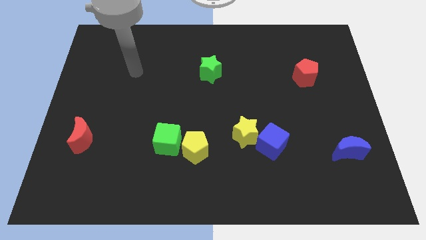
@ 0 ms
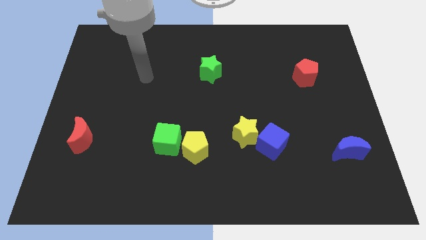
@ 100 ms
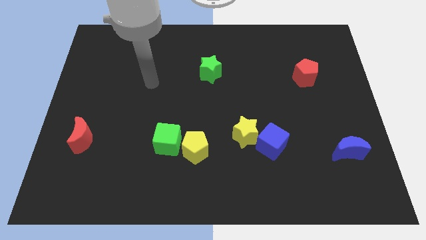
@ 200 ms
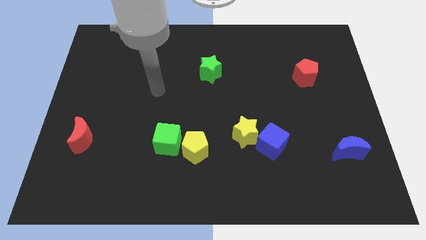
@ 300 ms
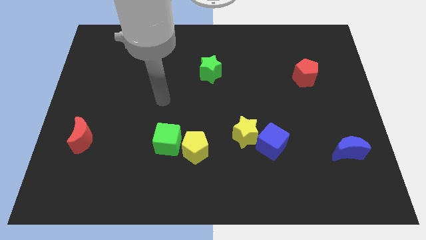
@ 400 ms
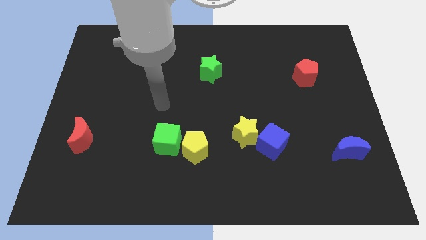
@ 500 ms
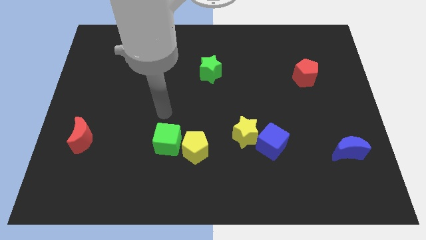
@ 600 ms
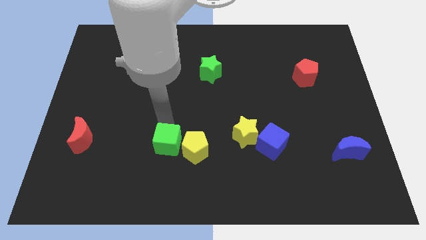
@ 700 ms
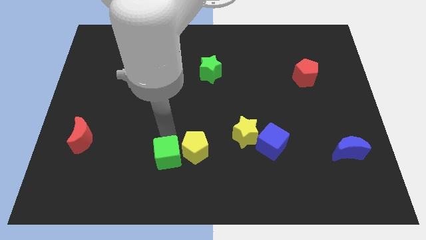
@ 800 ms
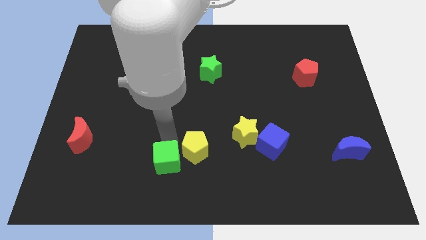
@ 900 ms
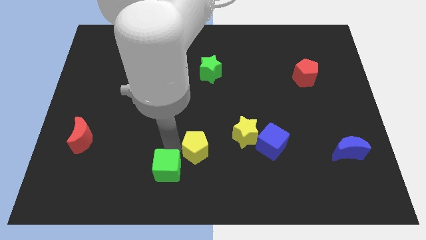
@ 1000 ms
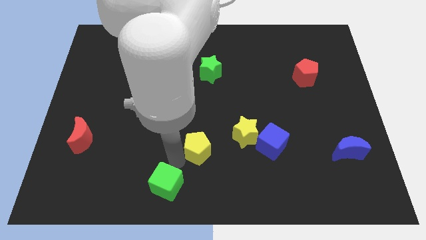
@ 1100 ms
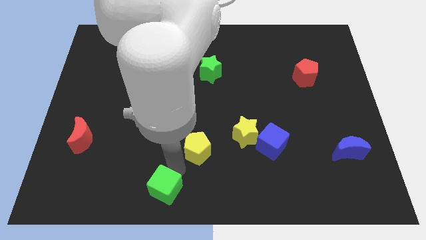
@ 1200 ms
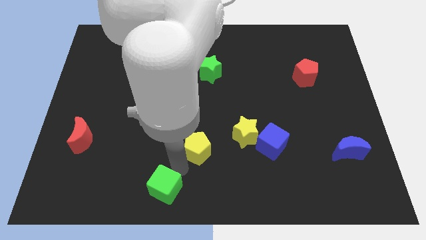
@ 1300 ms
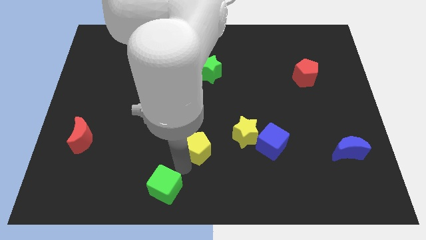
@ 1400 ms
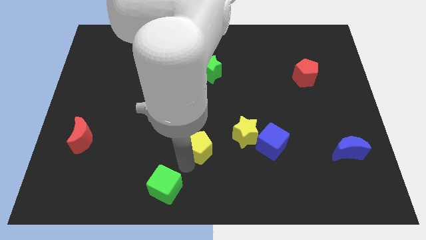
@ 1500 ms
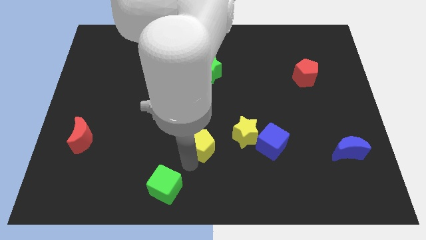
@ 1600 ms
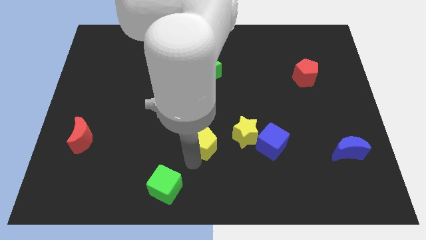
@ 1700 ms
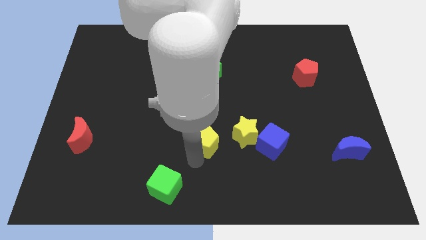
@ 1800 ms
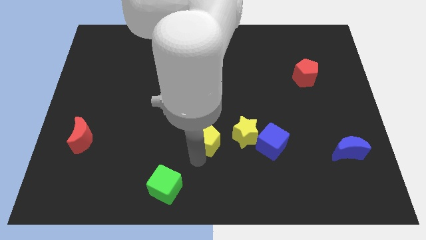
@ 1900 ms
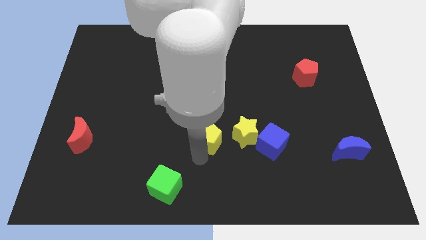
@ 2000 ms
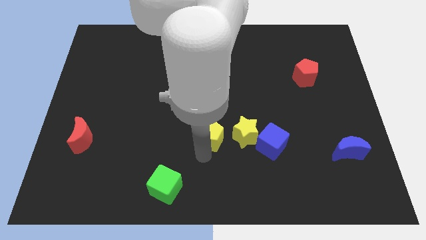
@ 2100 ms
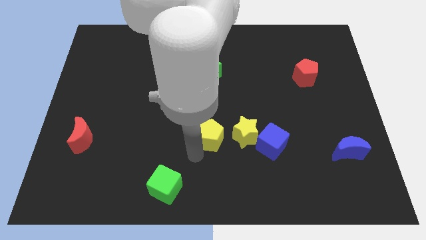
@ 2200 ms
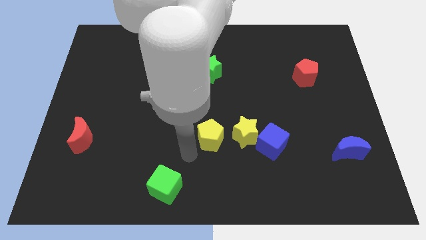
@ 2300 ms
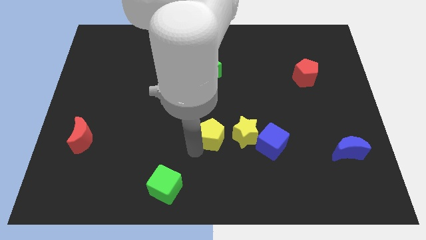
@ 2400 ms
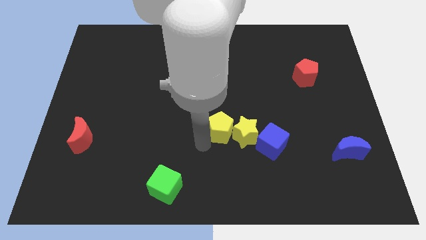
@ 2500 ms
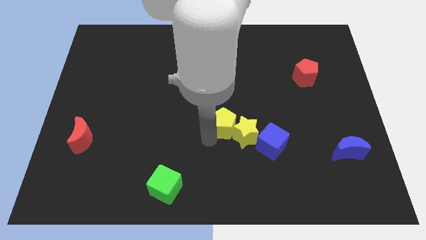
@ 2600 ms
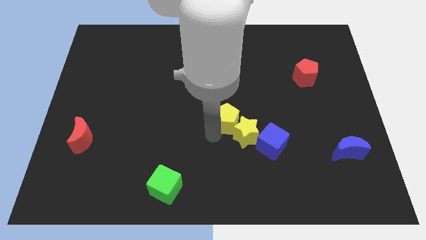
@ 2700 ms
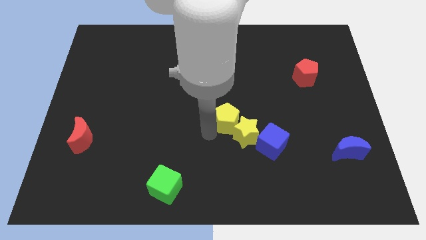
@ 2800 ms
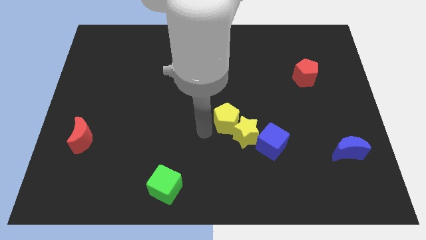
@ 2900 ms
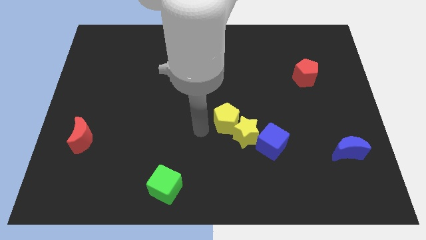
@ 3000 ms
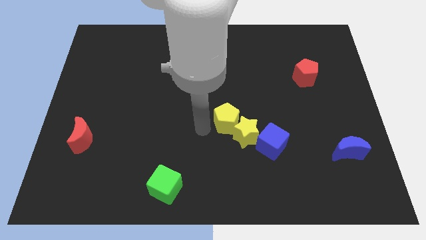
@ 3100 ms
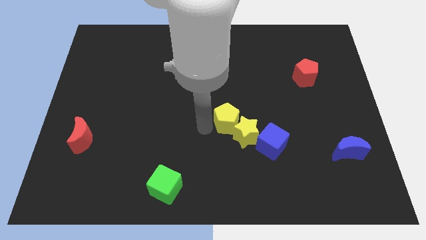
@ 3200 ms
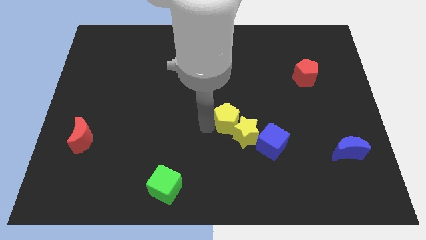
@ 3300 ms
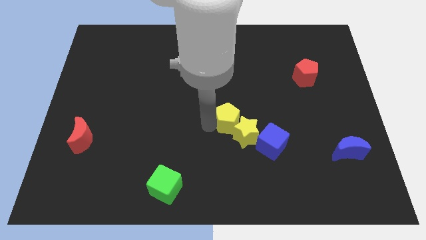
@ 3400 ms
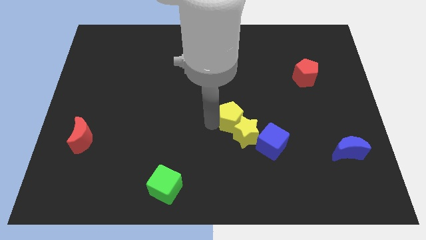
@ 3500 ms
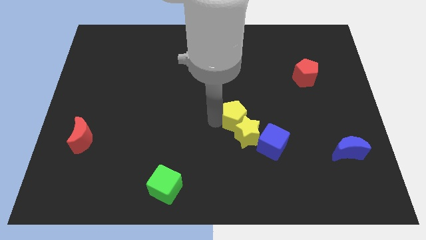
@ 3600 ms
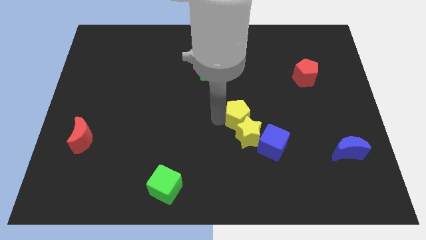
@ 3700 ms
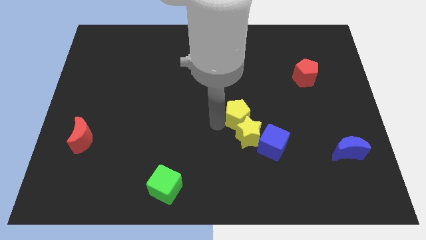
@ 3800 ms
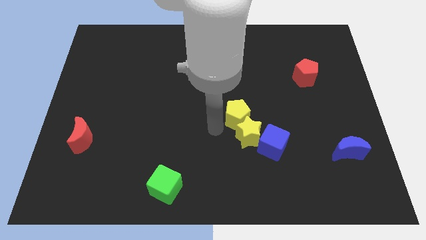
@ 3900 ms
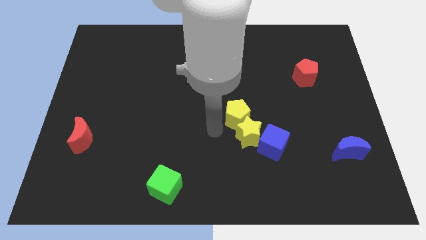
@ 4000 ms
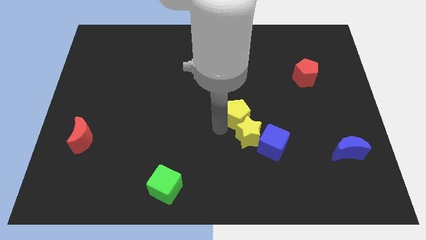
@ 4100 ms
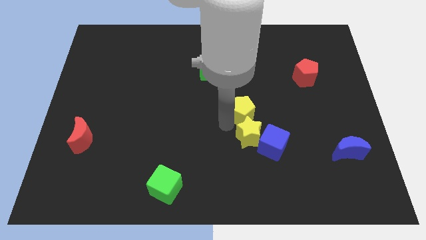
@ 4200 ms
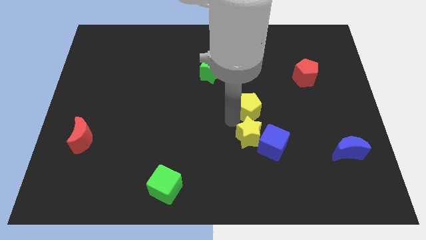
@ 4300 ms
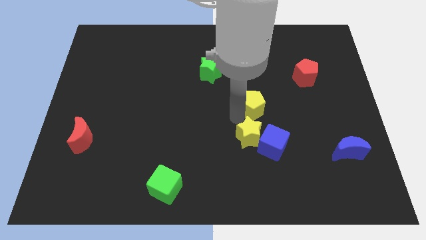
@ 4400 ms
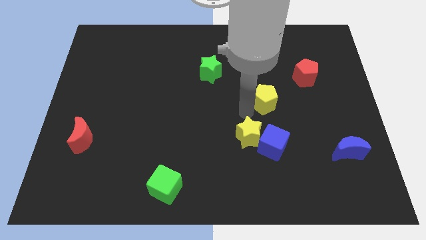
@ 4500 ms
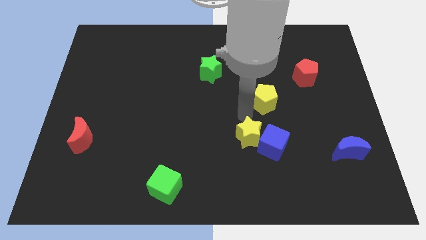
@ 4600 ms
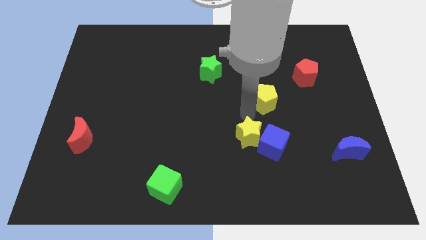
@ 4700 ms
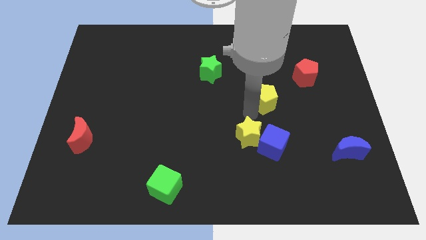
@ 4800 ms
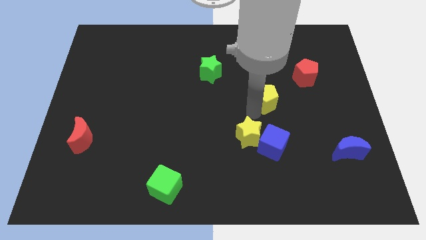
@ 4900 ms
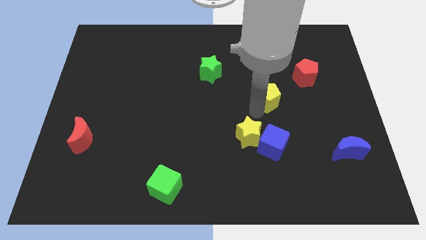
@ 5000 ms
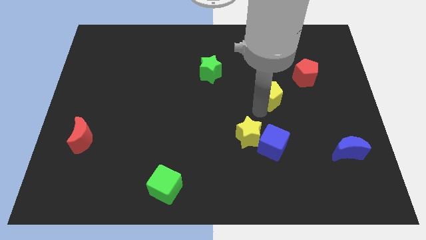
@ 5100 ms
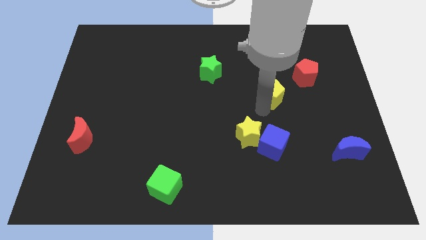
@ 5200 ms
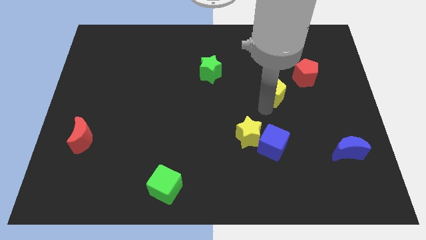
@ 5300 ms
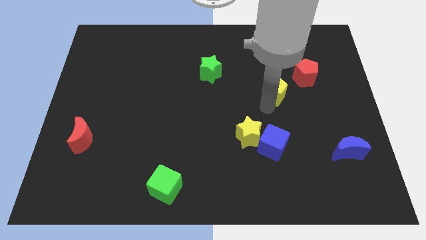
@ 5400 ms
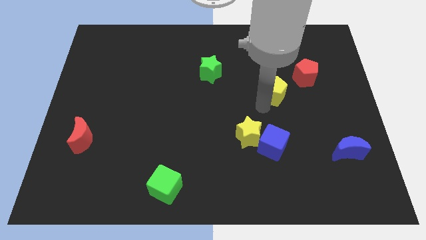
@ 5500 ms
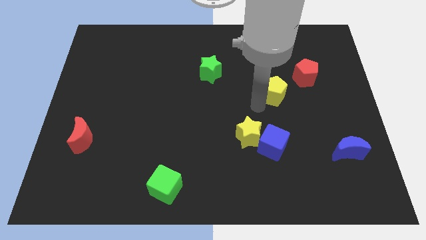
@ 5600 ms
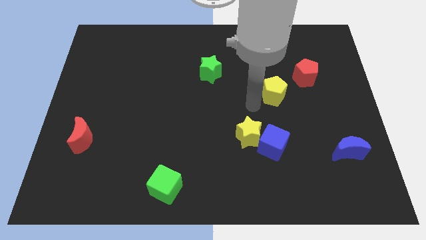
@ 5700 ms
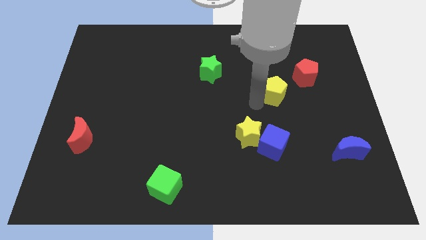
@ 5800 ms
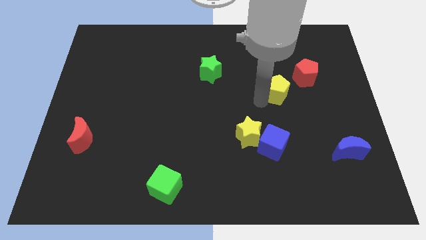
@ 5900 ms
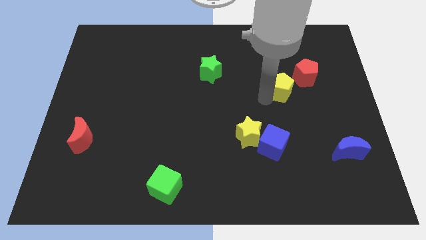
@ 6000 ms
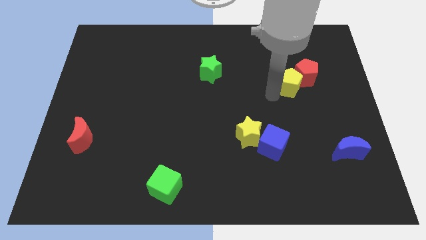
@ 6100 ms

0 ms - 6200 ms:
push the yellow pentagon next to the red pentagon

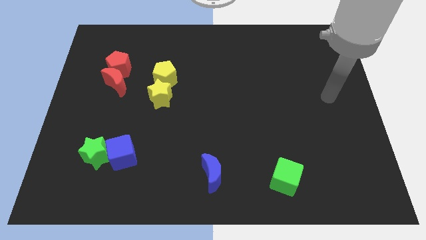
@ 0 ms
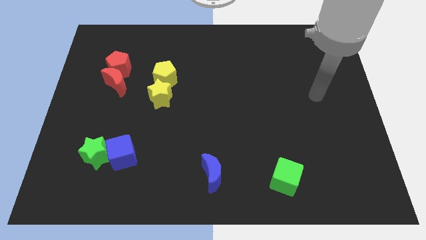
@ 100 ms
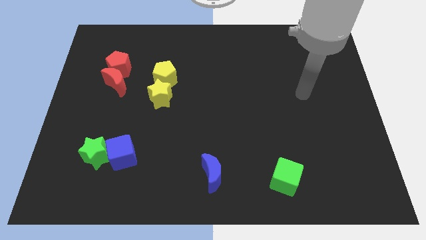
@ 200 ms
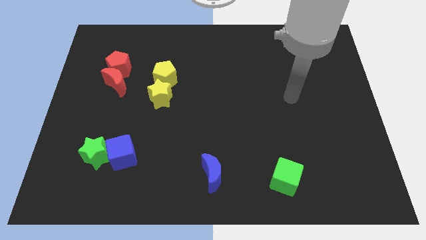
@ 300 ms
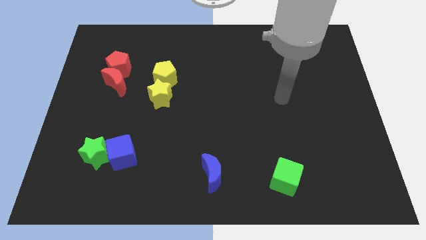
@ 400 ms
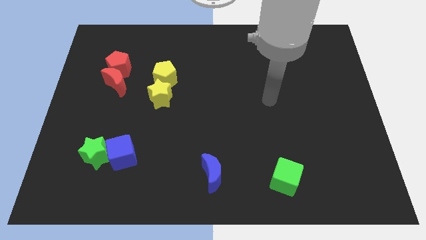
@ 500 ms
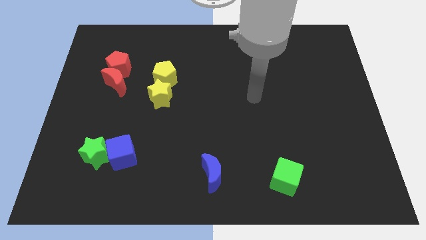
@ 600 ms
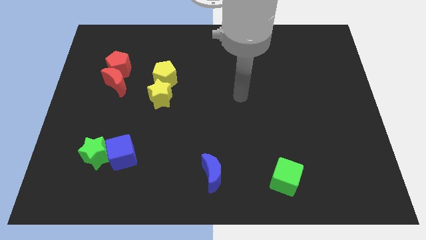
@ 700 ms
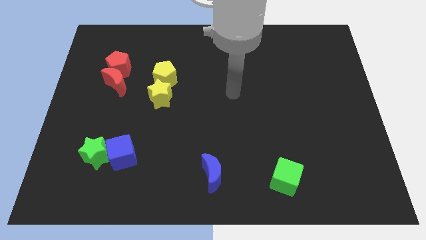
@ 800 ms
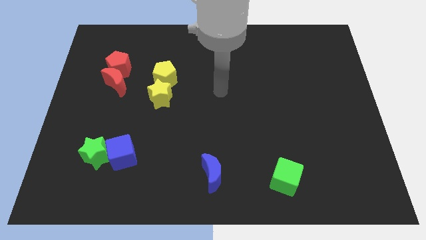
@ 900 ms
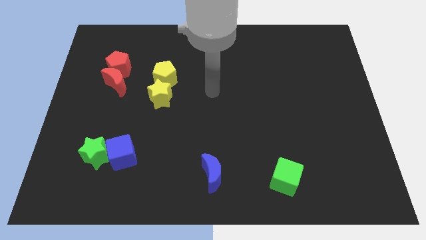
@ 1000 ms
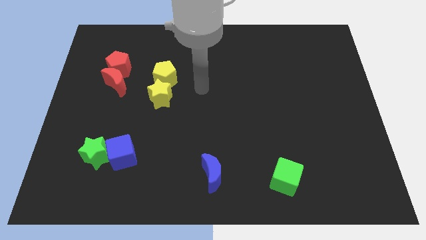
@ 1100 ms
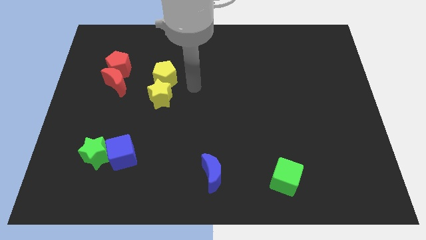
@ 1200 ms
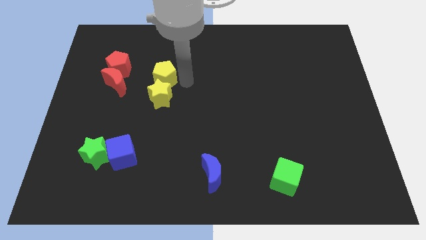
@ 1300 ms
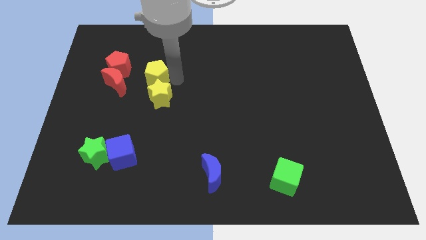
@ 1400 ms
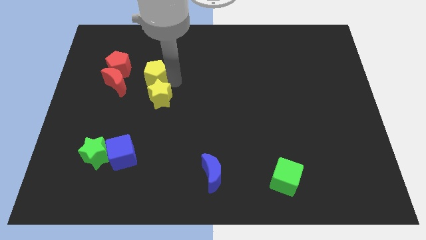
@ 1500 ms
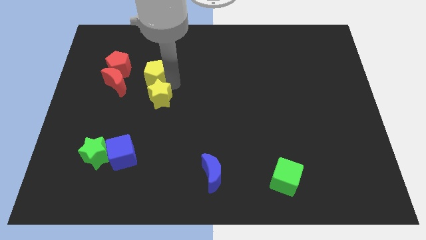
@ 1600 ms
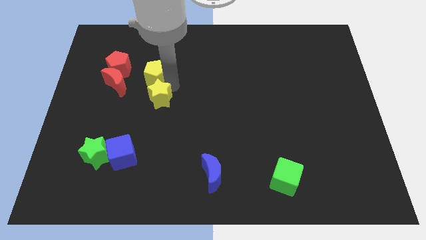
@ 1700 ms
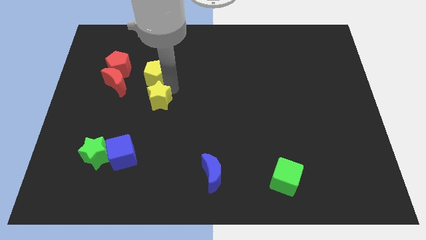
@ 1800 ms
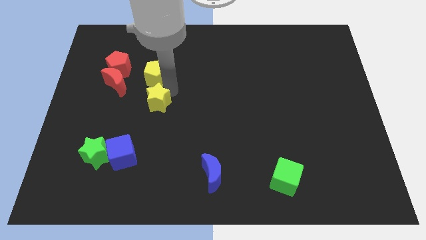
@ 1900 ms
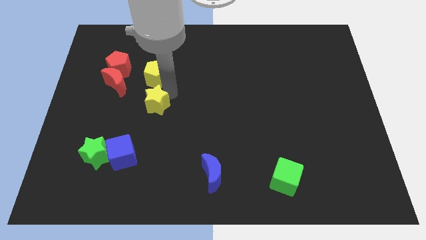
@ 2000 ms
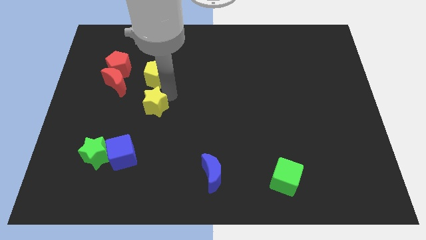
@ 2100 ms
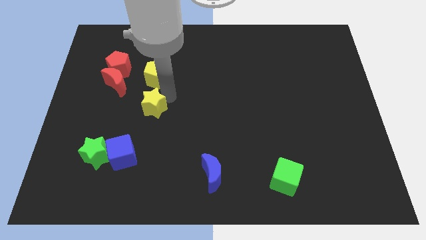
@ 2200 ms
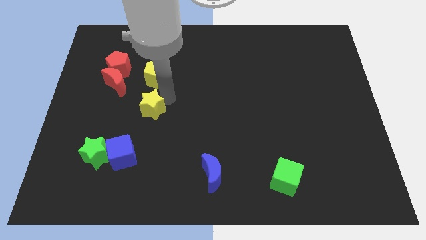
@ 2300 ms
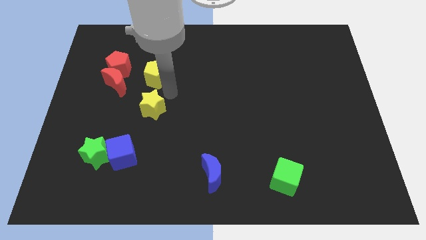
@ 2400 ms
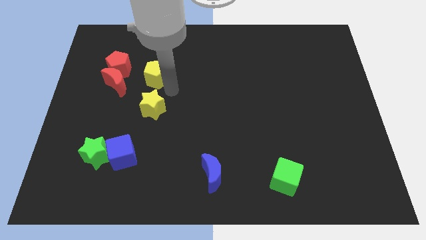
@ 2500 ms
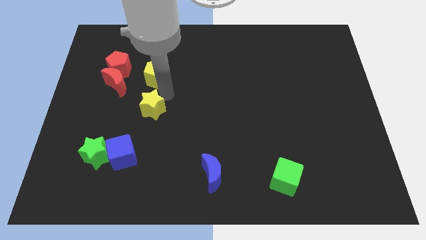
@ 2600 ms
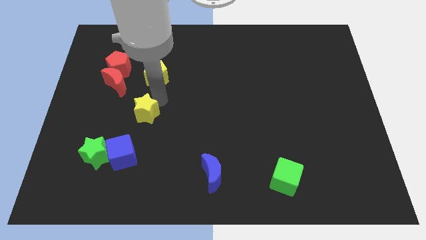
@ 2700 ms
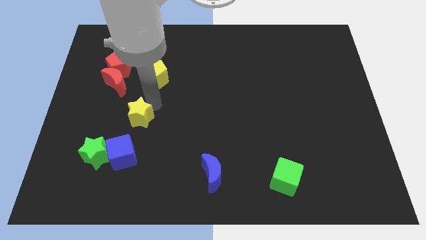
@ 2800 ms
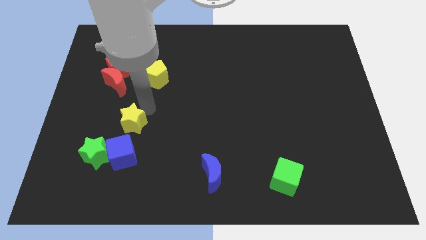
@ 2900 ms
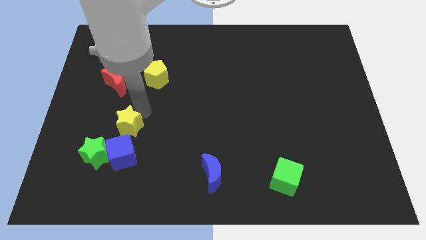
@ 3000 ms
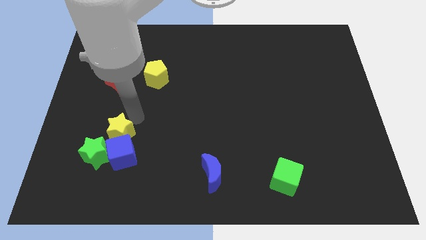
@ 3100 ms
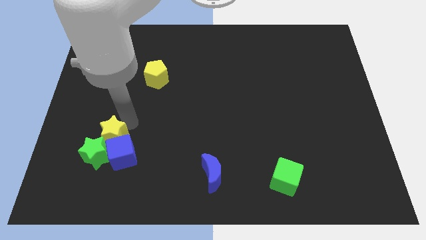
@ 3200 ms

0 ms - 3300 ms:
move the yellow star close to the green star
